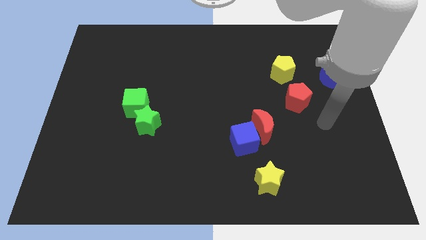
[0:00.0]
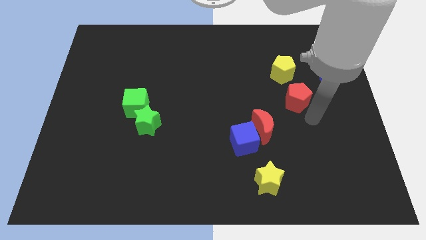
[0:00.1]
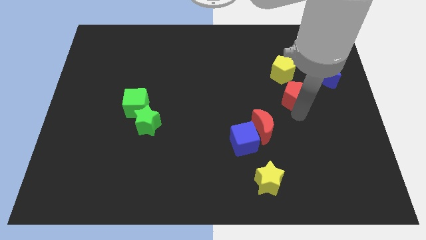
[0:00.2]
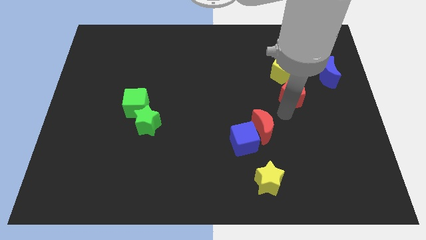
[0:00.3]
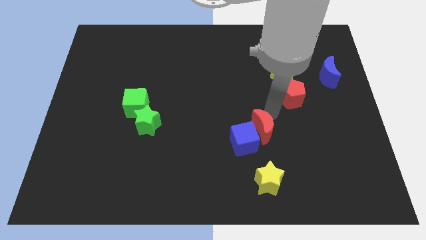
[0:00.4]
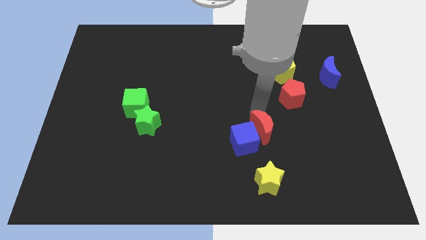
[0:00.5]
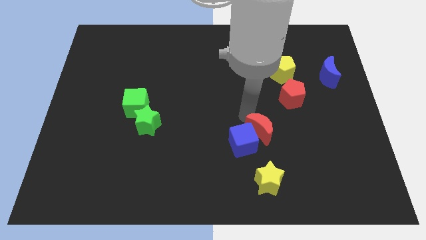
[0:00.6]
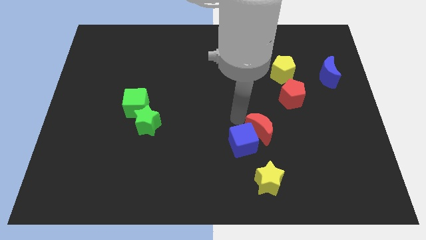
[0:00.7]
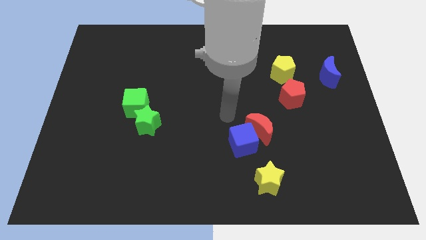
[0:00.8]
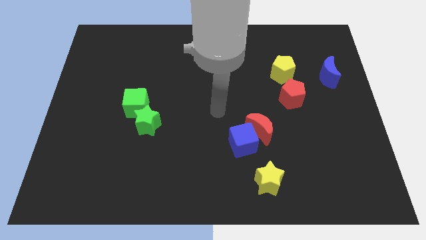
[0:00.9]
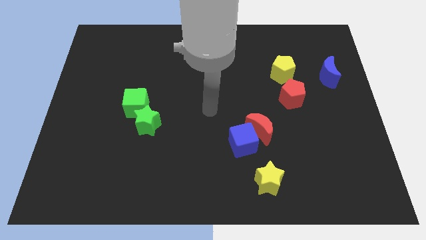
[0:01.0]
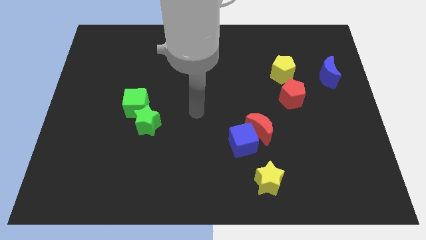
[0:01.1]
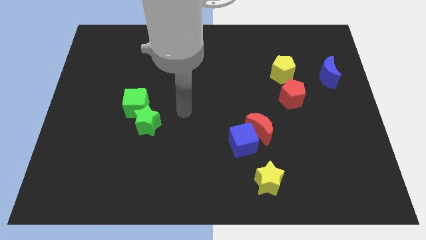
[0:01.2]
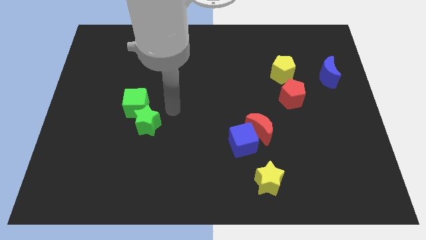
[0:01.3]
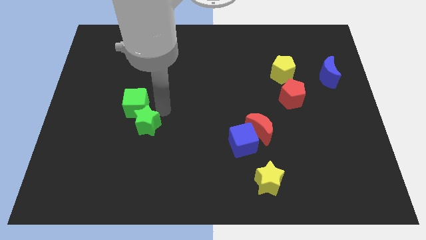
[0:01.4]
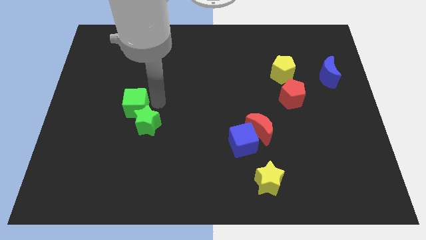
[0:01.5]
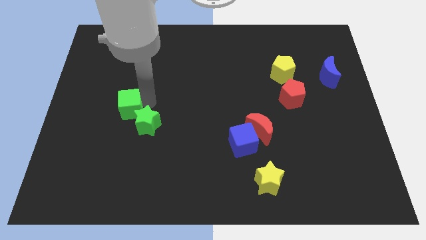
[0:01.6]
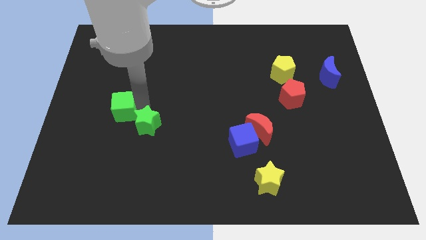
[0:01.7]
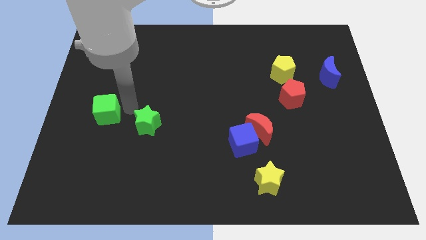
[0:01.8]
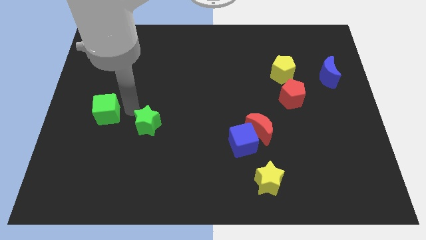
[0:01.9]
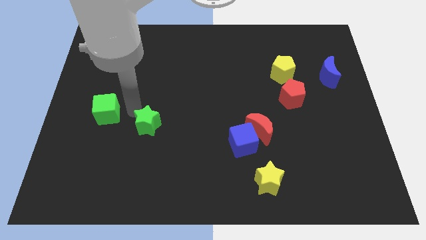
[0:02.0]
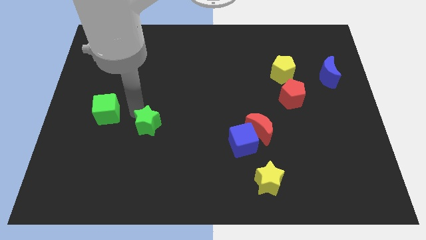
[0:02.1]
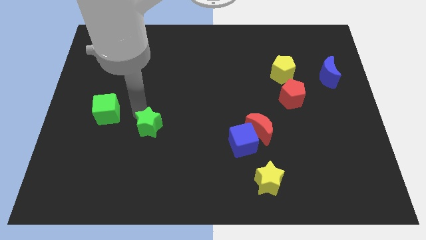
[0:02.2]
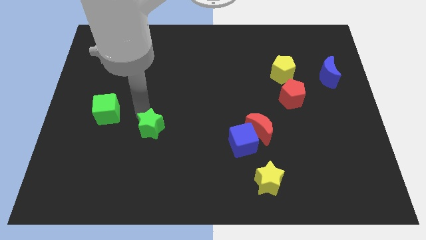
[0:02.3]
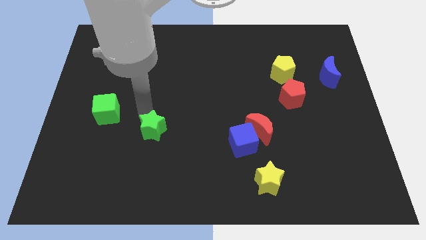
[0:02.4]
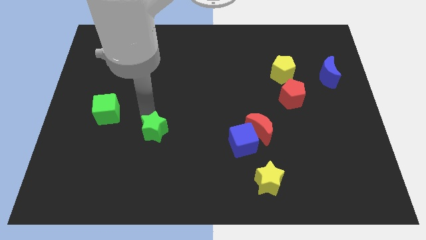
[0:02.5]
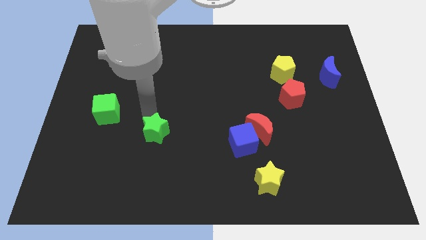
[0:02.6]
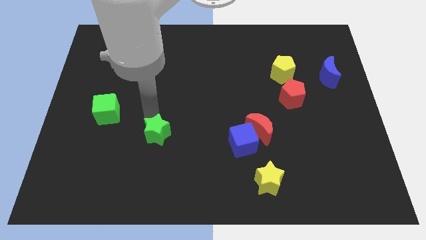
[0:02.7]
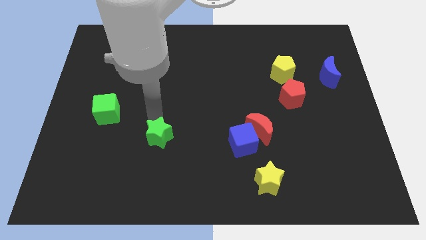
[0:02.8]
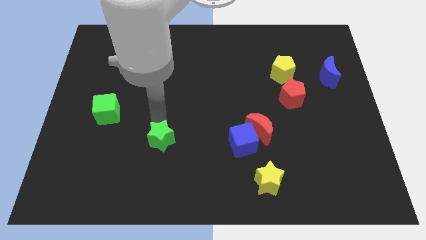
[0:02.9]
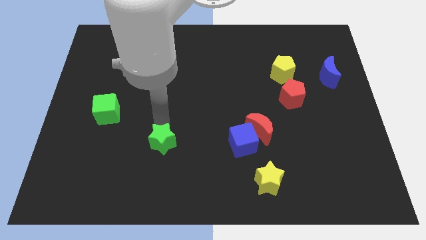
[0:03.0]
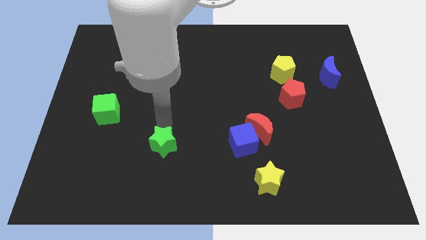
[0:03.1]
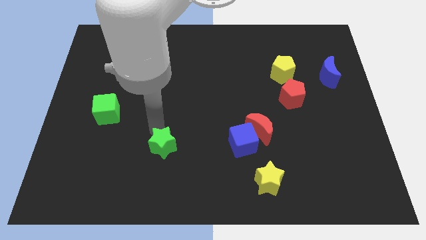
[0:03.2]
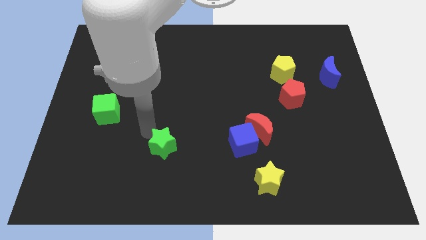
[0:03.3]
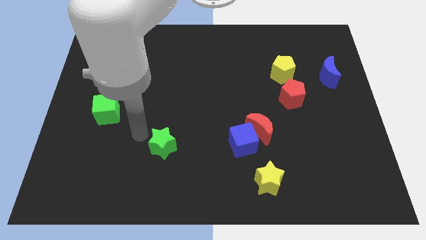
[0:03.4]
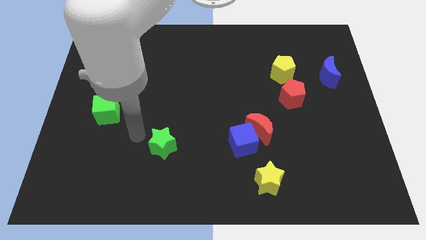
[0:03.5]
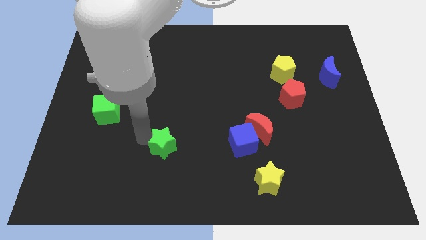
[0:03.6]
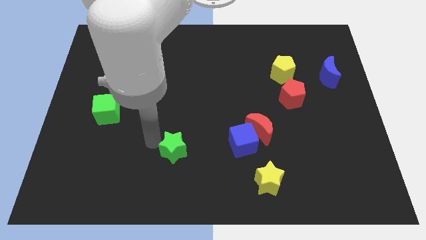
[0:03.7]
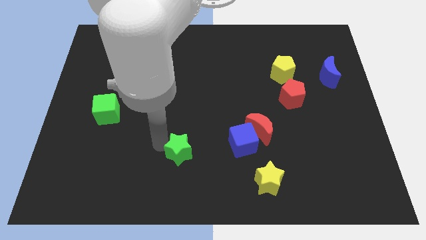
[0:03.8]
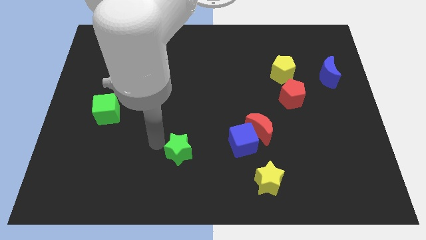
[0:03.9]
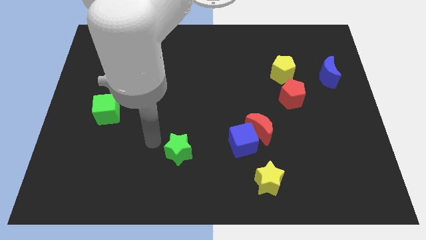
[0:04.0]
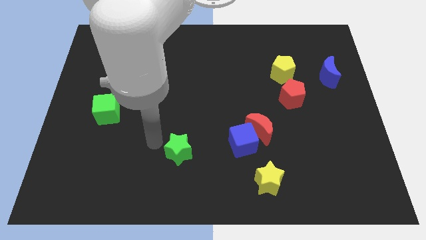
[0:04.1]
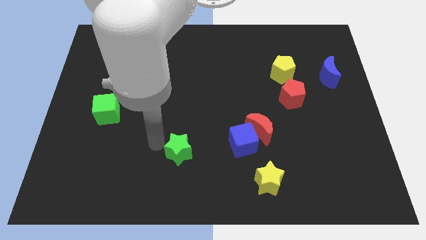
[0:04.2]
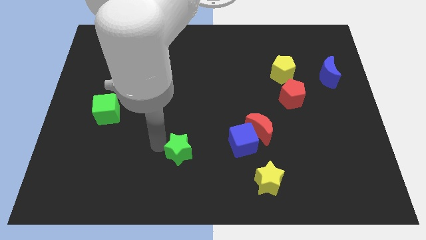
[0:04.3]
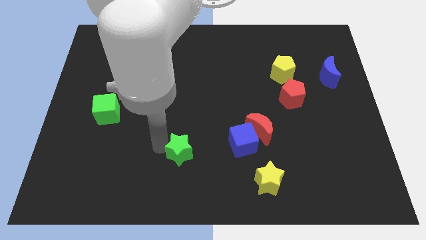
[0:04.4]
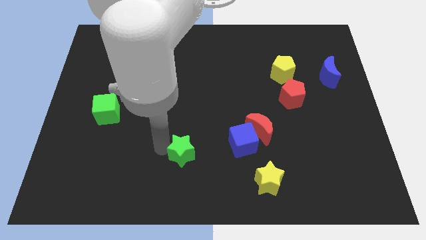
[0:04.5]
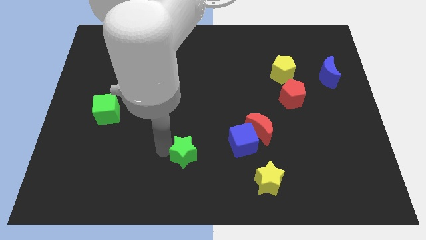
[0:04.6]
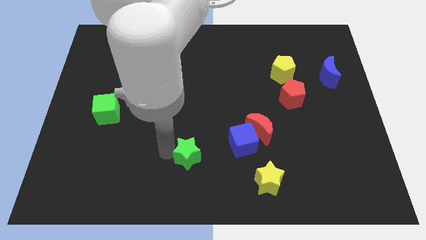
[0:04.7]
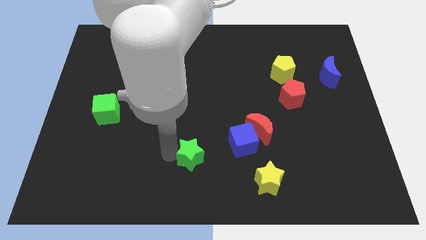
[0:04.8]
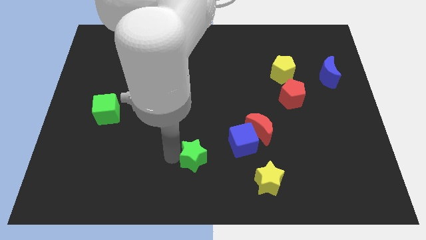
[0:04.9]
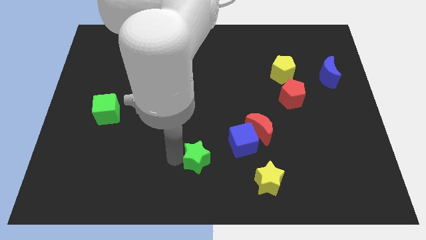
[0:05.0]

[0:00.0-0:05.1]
slide the green star to the bottom left side of the blue cube

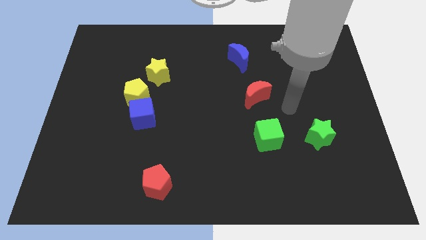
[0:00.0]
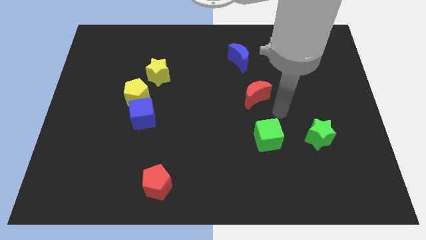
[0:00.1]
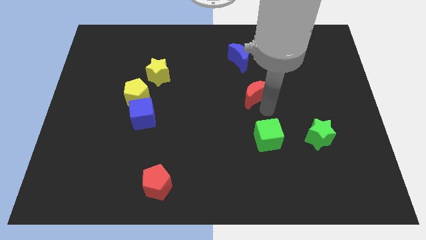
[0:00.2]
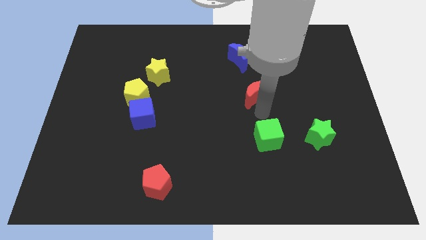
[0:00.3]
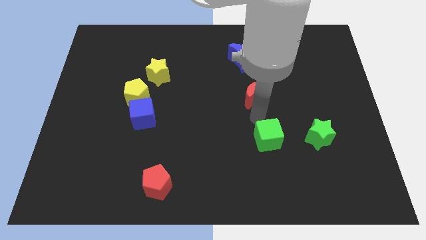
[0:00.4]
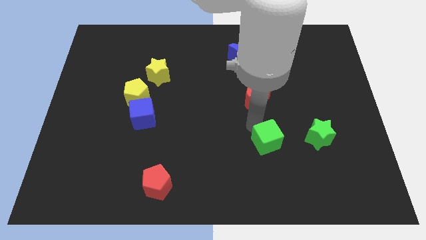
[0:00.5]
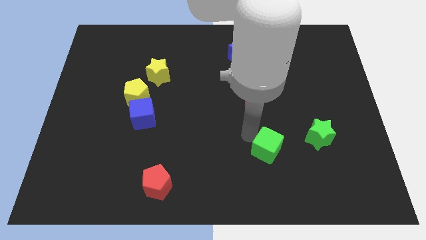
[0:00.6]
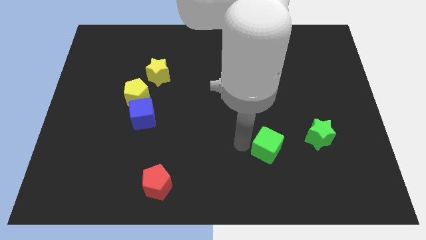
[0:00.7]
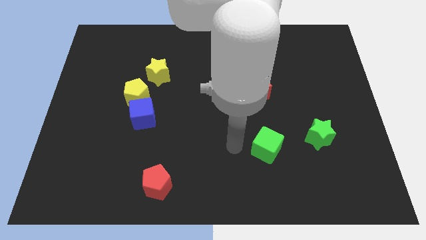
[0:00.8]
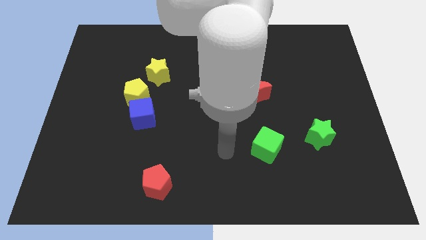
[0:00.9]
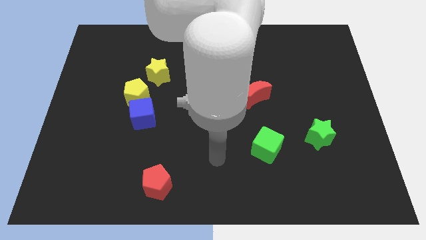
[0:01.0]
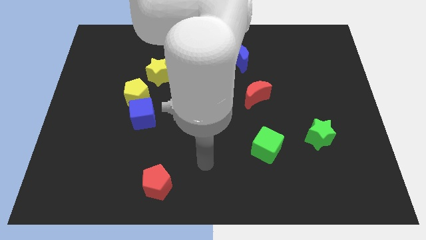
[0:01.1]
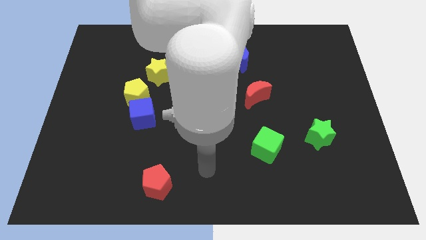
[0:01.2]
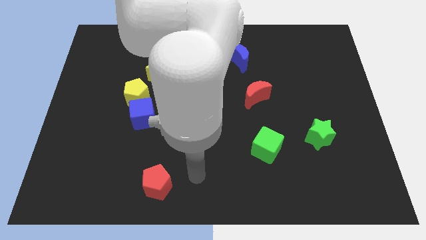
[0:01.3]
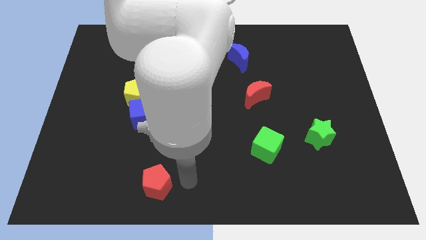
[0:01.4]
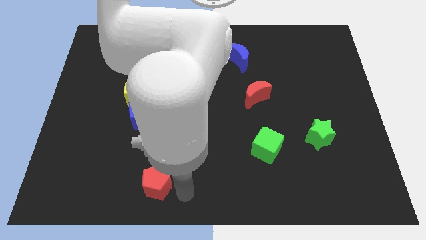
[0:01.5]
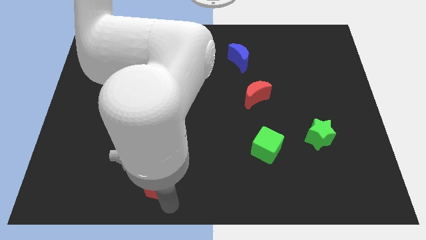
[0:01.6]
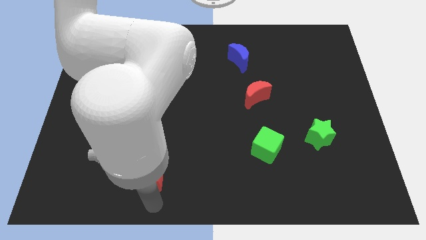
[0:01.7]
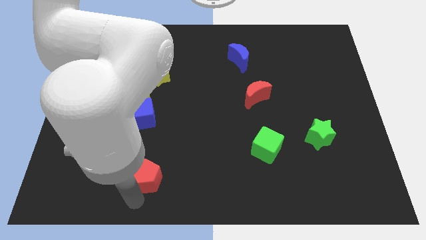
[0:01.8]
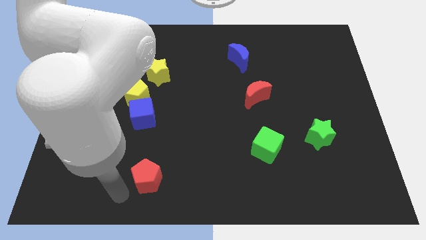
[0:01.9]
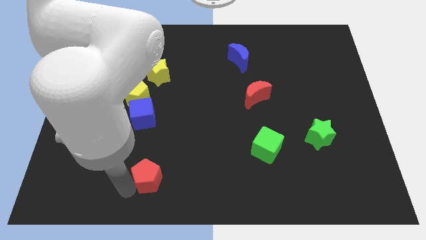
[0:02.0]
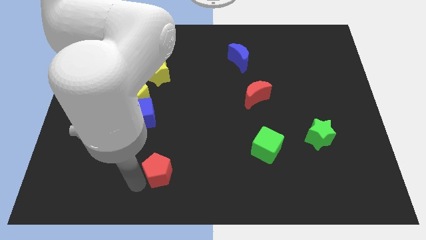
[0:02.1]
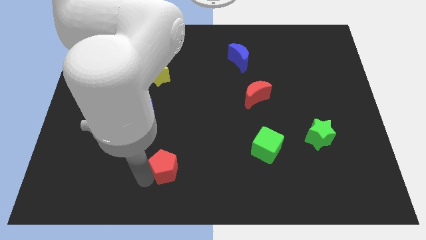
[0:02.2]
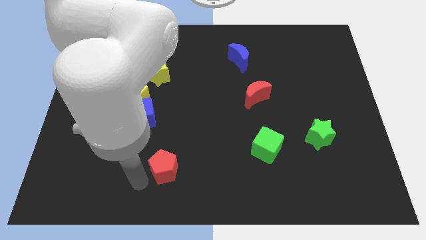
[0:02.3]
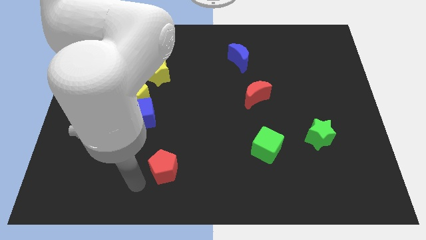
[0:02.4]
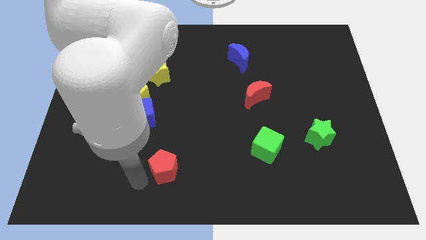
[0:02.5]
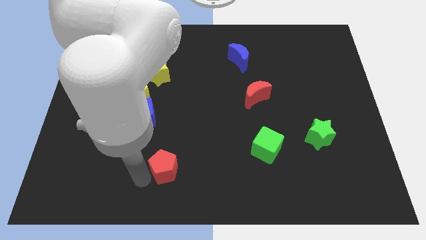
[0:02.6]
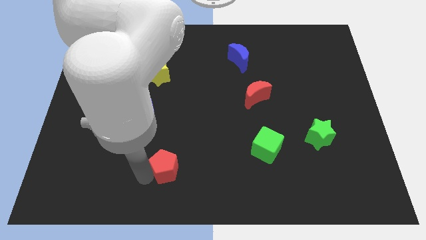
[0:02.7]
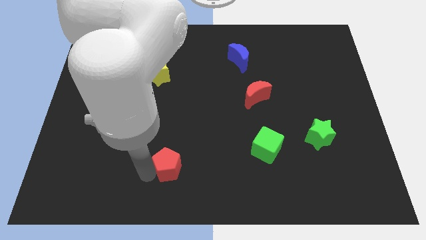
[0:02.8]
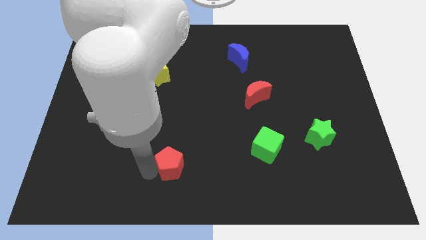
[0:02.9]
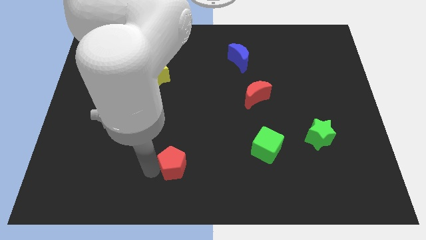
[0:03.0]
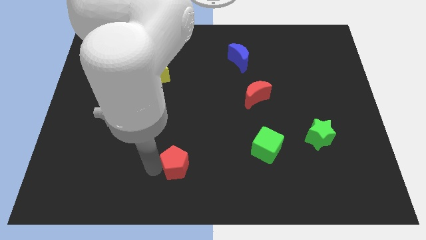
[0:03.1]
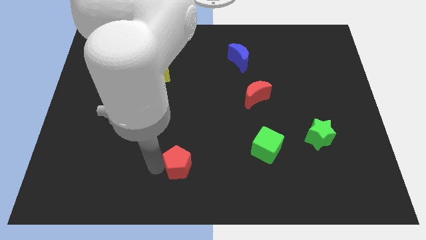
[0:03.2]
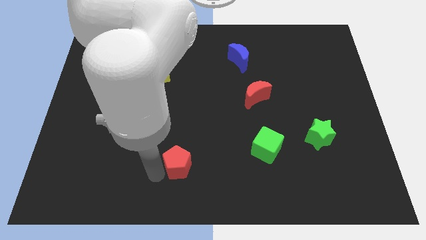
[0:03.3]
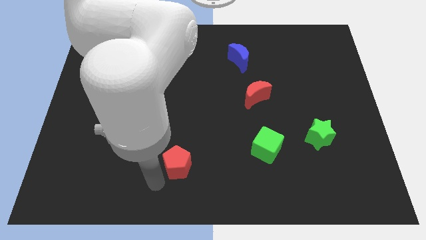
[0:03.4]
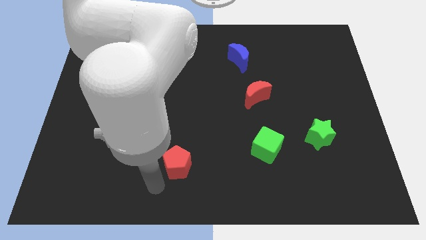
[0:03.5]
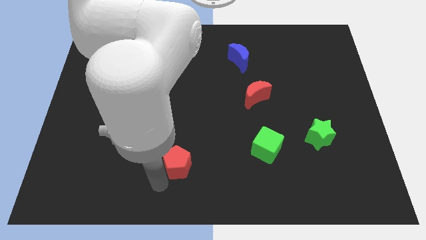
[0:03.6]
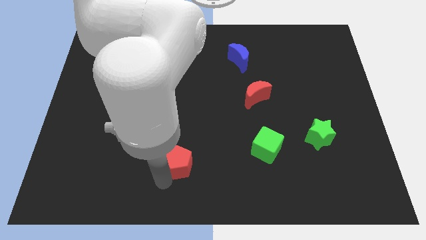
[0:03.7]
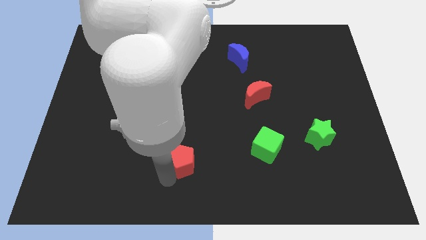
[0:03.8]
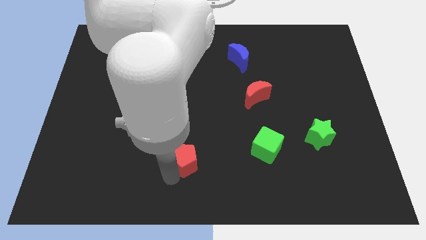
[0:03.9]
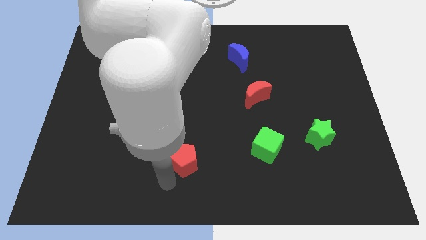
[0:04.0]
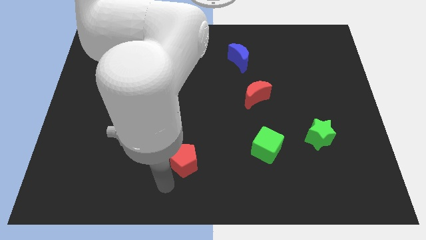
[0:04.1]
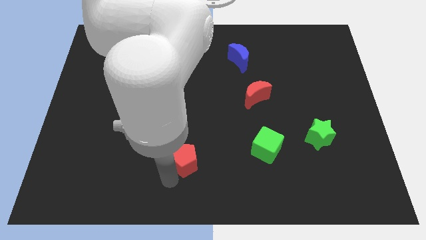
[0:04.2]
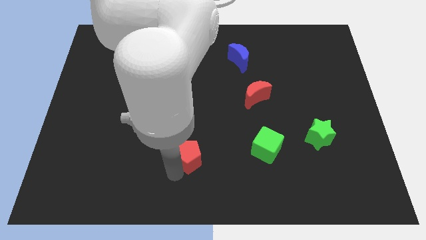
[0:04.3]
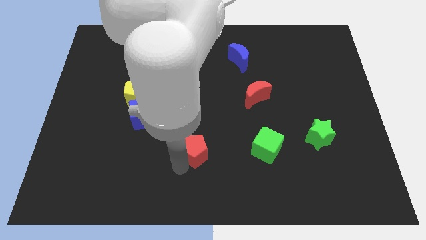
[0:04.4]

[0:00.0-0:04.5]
move the red pentagon just left of the green cube
